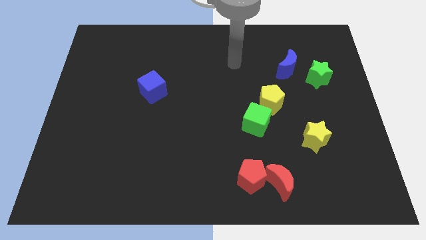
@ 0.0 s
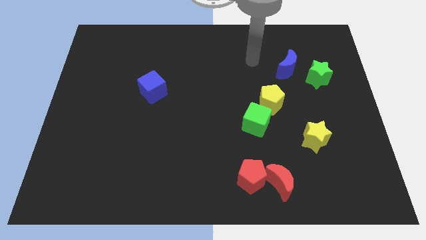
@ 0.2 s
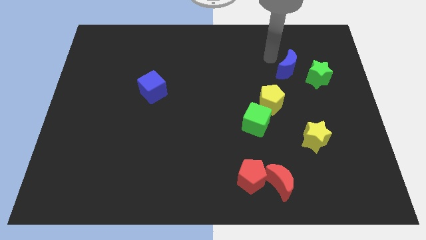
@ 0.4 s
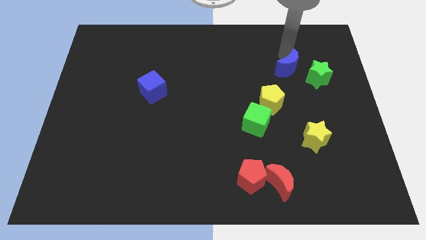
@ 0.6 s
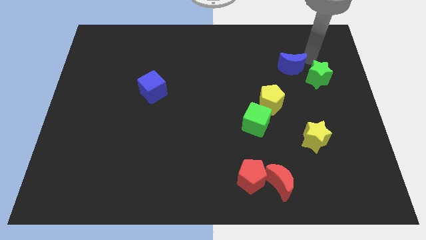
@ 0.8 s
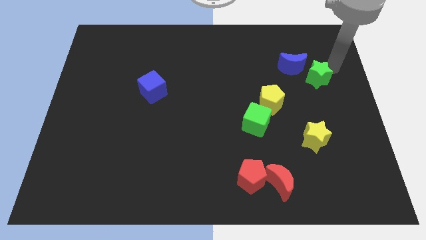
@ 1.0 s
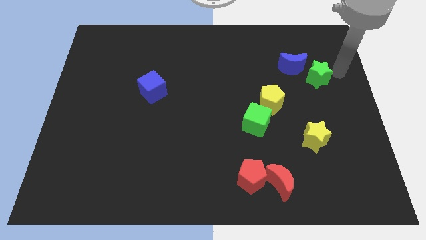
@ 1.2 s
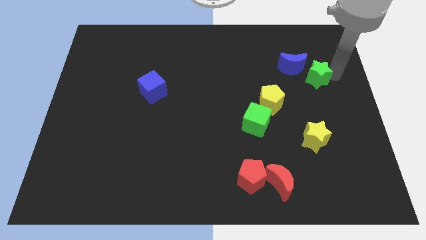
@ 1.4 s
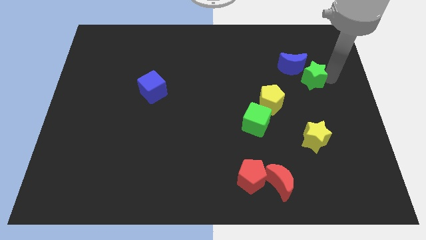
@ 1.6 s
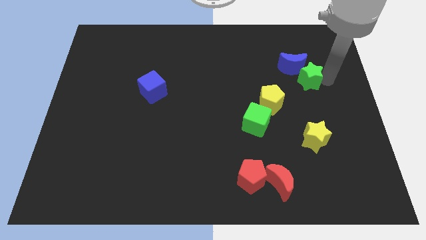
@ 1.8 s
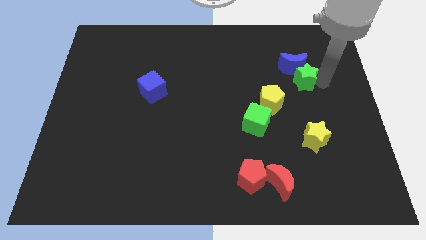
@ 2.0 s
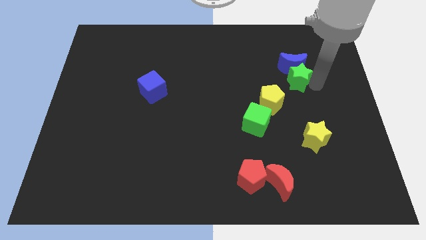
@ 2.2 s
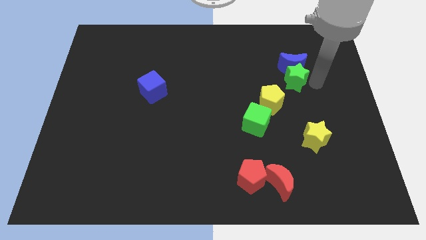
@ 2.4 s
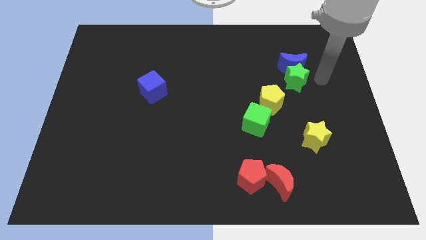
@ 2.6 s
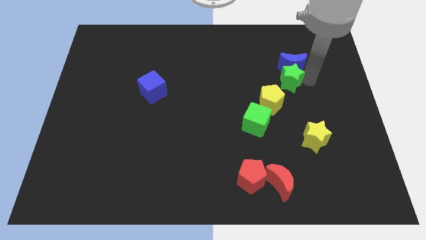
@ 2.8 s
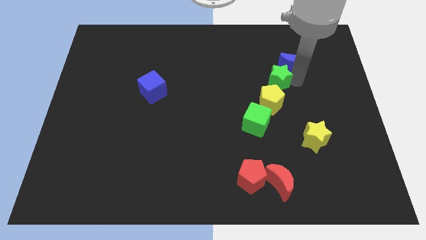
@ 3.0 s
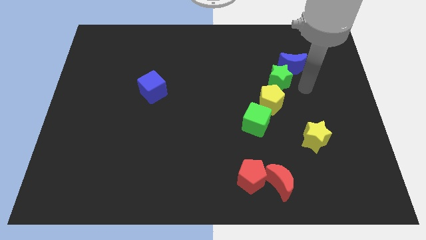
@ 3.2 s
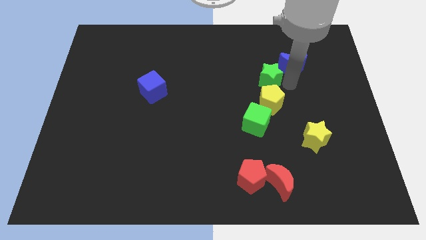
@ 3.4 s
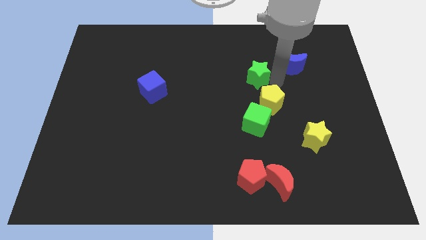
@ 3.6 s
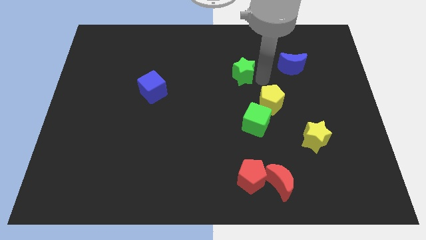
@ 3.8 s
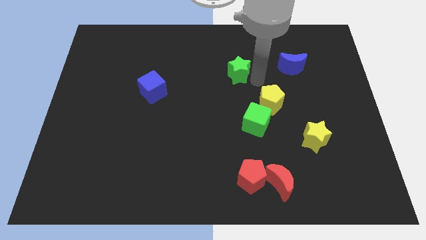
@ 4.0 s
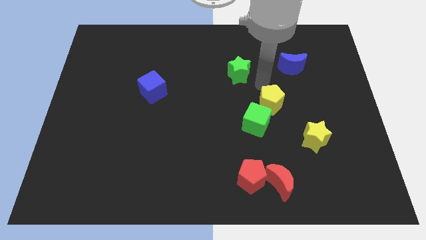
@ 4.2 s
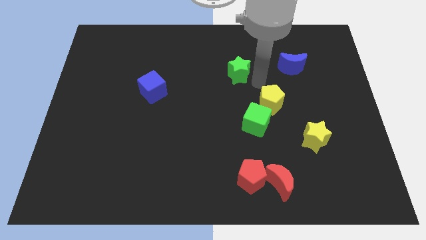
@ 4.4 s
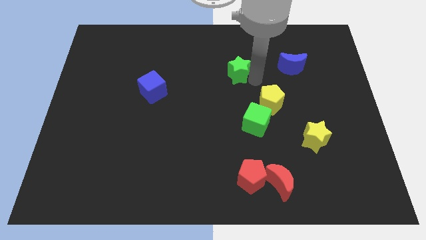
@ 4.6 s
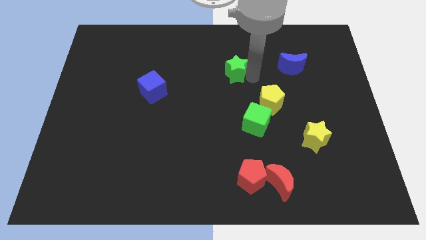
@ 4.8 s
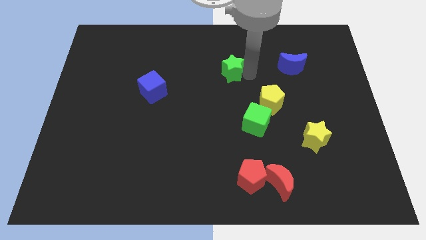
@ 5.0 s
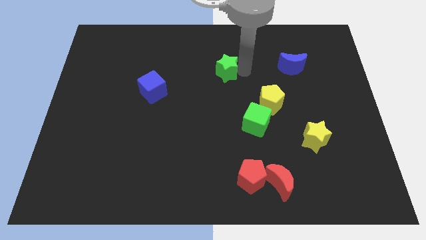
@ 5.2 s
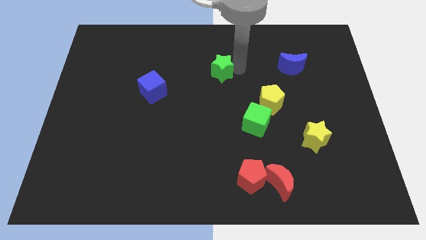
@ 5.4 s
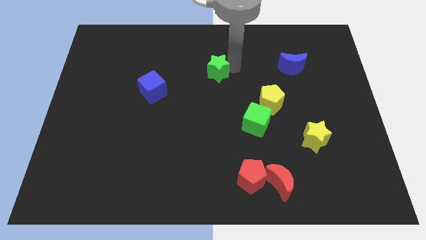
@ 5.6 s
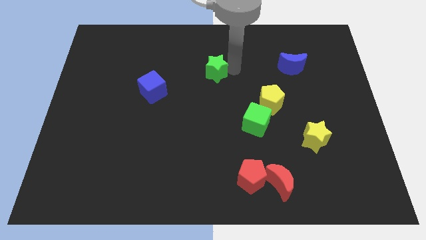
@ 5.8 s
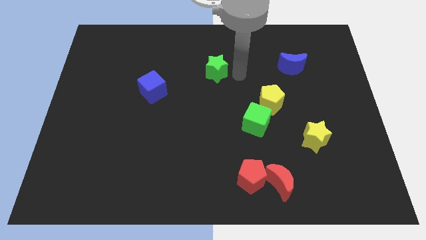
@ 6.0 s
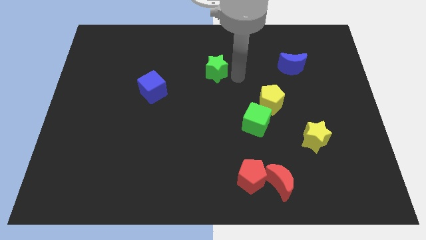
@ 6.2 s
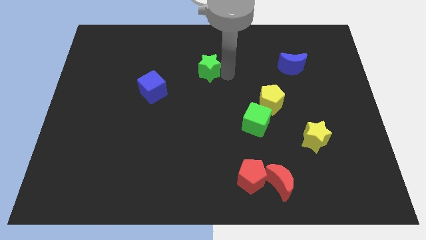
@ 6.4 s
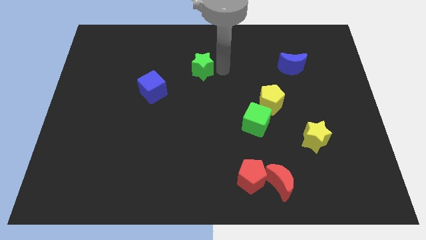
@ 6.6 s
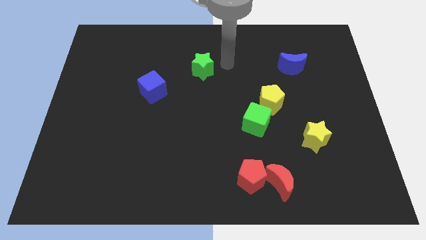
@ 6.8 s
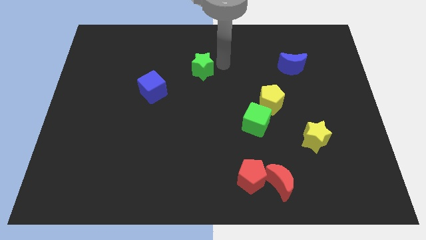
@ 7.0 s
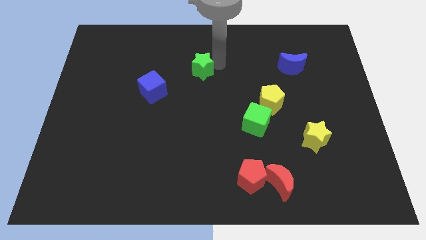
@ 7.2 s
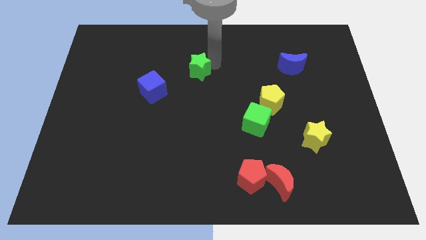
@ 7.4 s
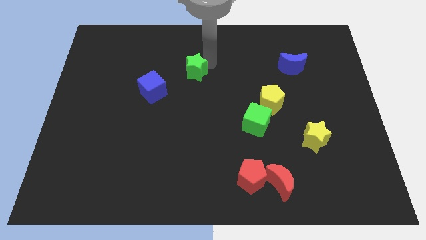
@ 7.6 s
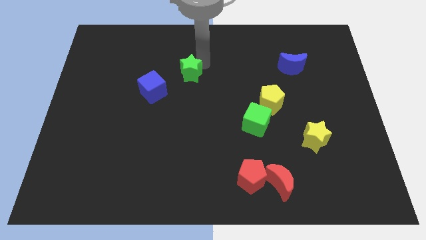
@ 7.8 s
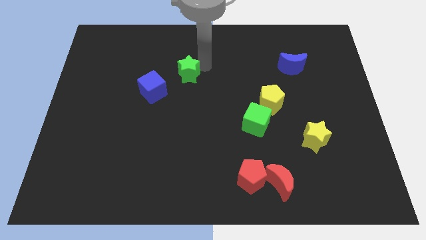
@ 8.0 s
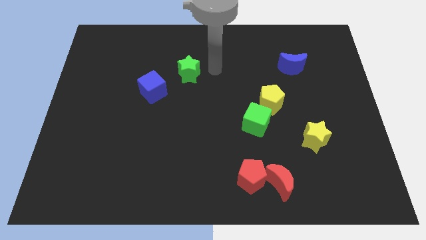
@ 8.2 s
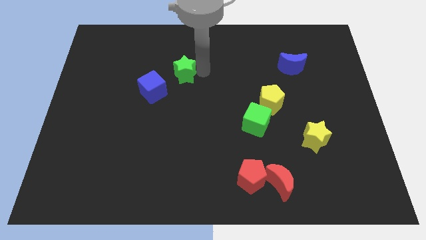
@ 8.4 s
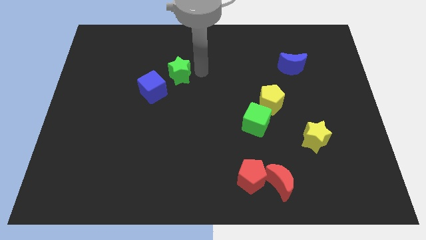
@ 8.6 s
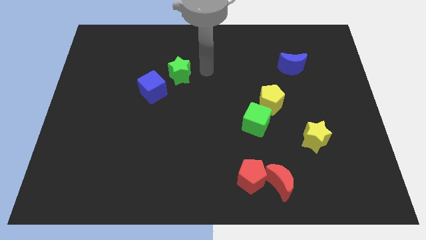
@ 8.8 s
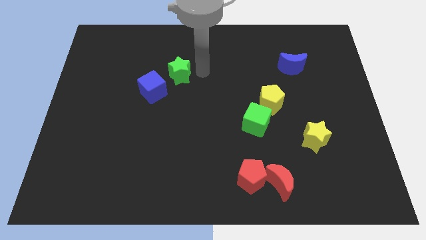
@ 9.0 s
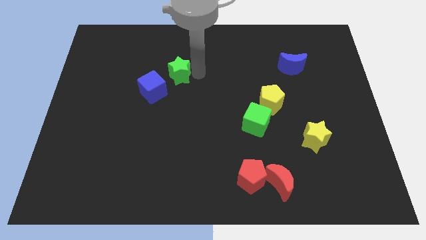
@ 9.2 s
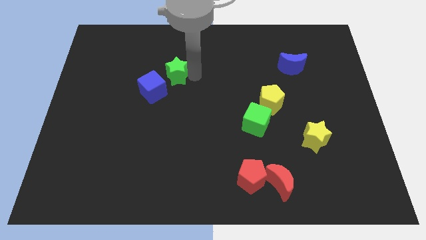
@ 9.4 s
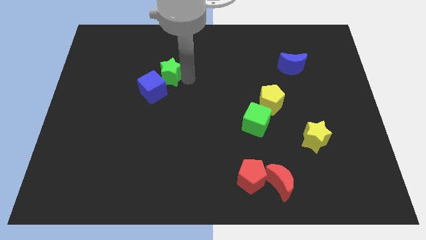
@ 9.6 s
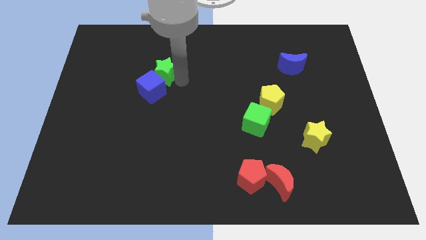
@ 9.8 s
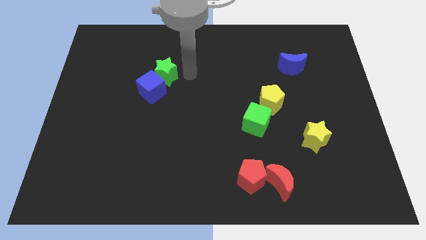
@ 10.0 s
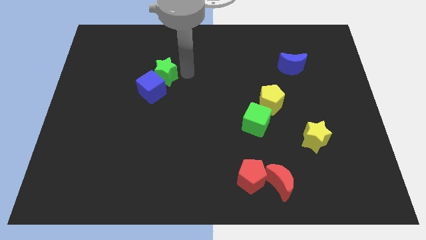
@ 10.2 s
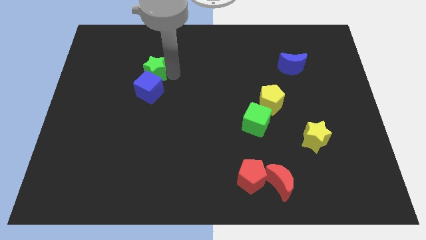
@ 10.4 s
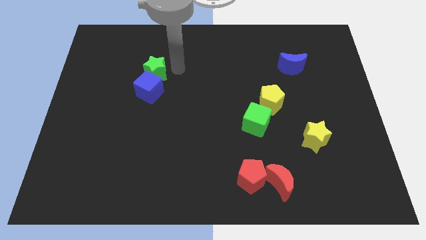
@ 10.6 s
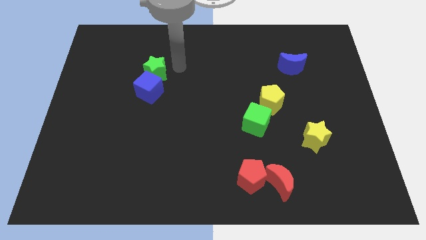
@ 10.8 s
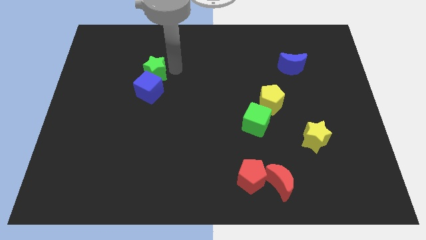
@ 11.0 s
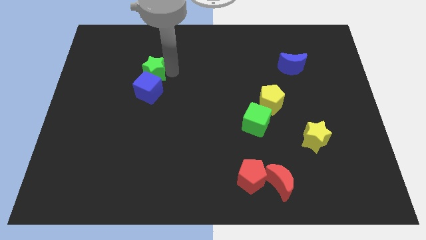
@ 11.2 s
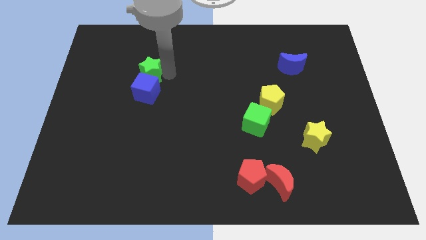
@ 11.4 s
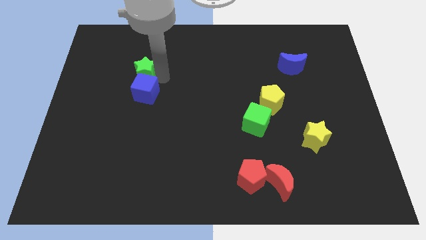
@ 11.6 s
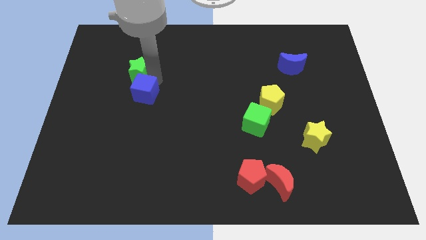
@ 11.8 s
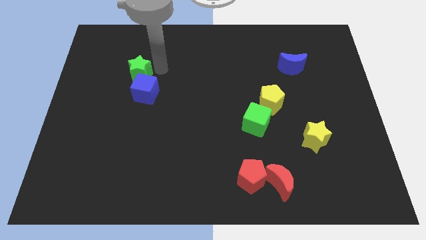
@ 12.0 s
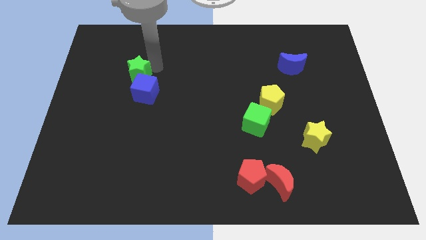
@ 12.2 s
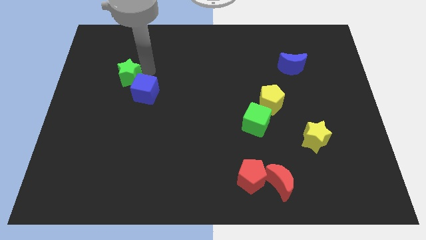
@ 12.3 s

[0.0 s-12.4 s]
put the green star just left of the blue cube

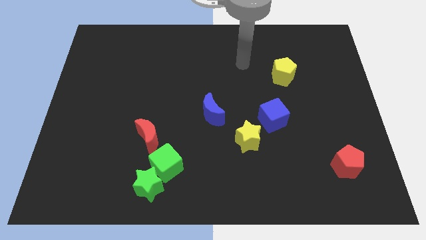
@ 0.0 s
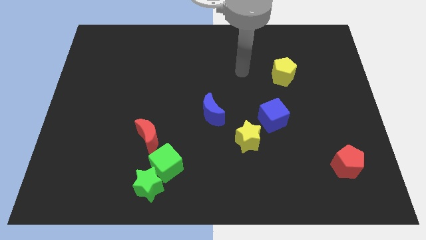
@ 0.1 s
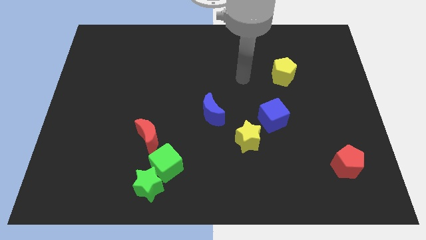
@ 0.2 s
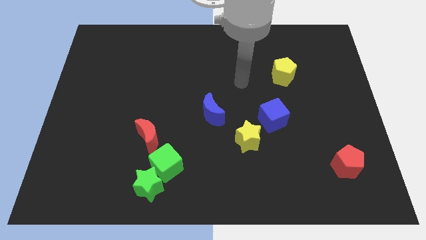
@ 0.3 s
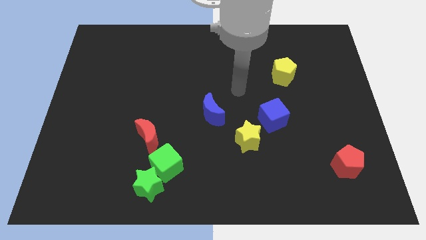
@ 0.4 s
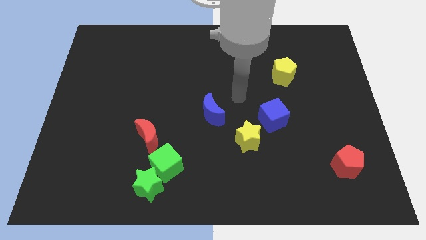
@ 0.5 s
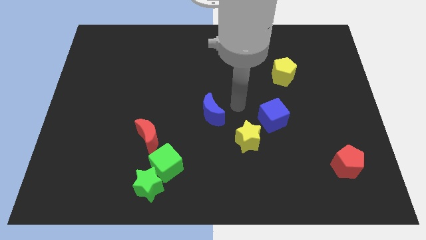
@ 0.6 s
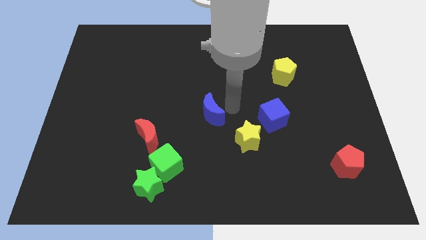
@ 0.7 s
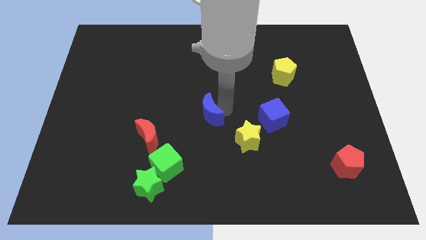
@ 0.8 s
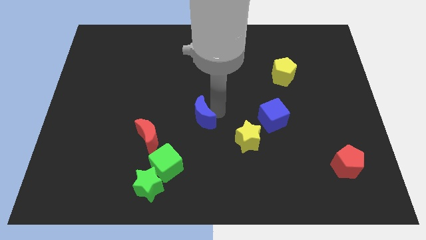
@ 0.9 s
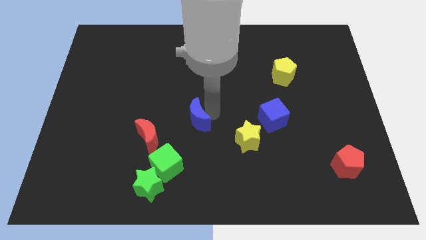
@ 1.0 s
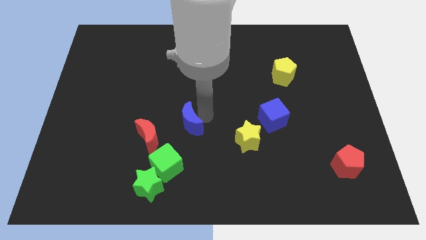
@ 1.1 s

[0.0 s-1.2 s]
put the blue moon above the green cube
